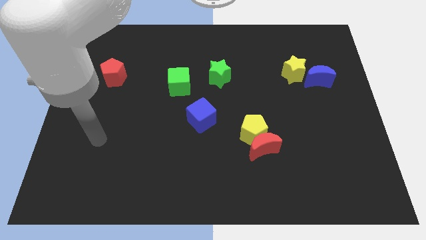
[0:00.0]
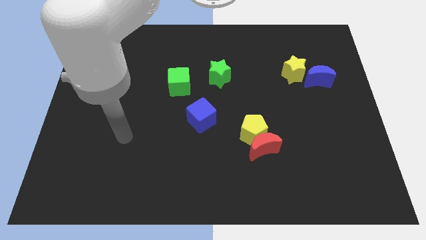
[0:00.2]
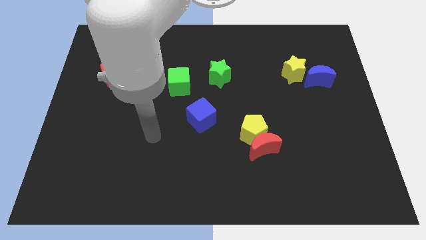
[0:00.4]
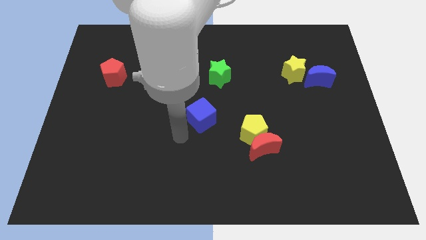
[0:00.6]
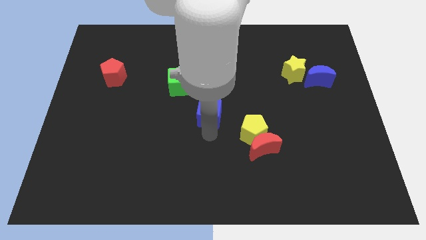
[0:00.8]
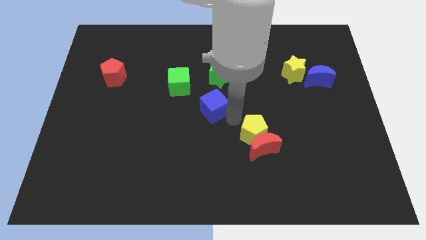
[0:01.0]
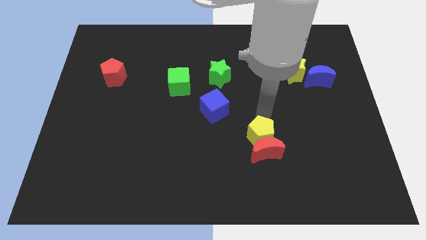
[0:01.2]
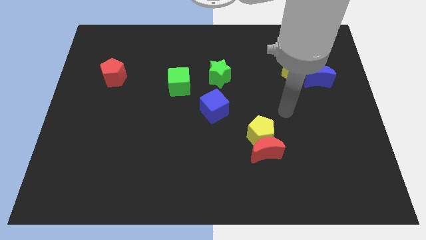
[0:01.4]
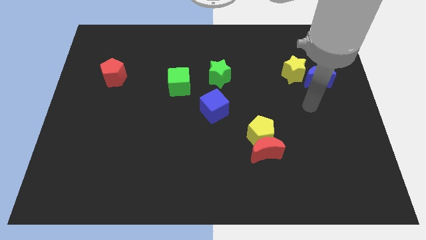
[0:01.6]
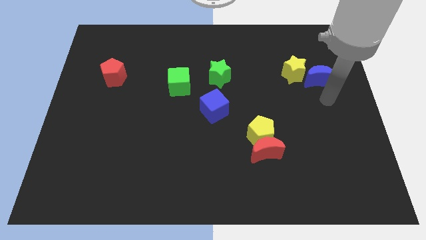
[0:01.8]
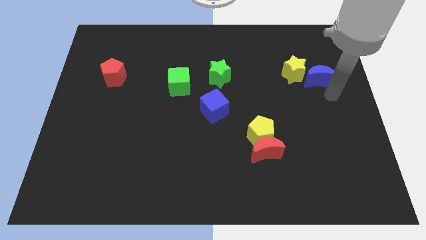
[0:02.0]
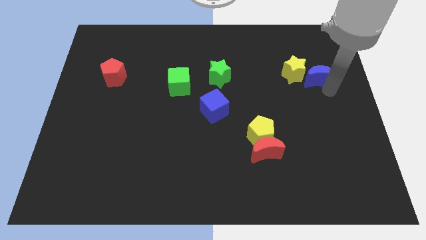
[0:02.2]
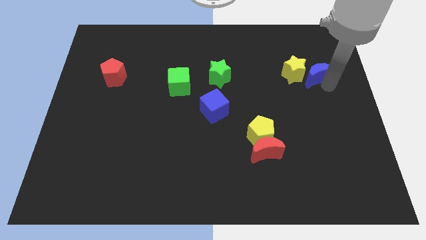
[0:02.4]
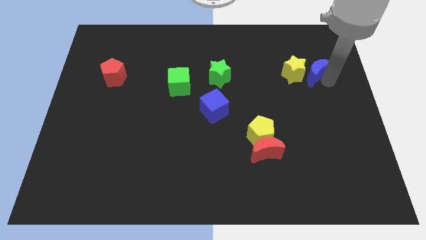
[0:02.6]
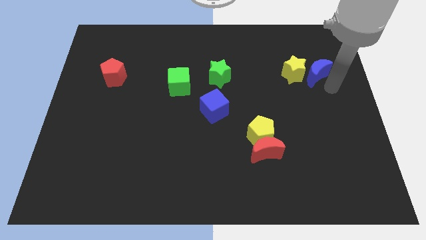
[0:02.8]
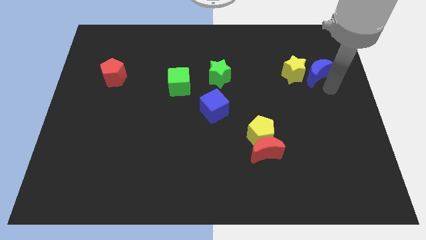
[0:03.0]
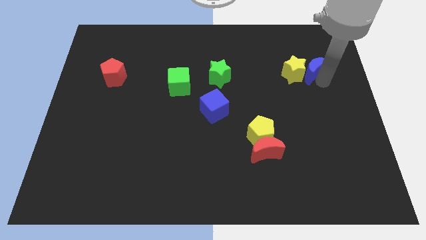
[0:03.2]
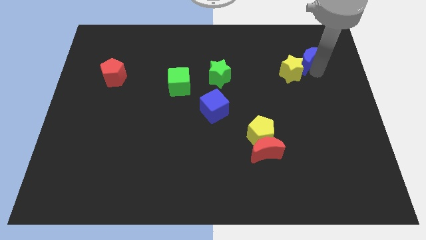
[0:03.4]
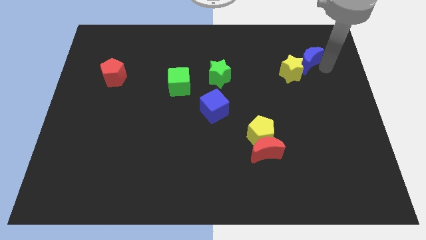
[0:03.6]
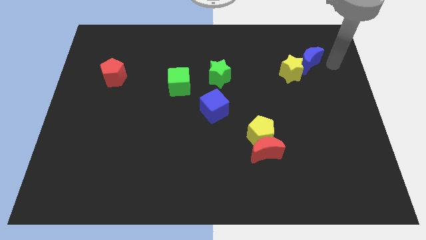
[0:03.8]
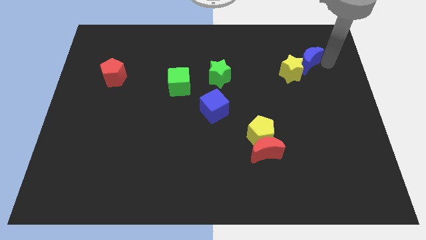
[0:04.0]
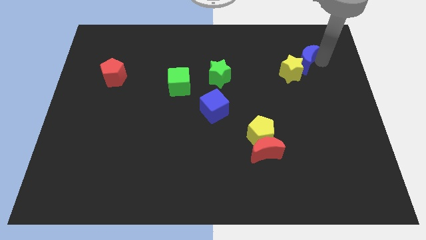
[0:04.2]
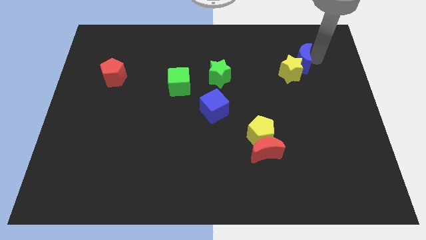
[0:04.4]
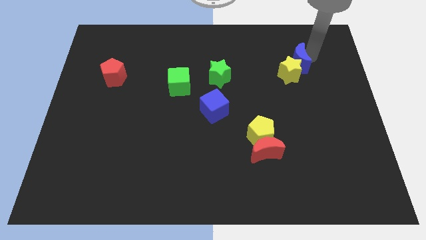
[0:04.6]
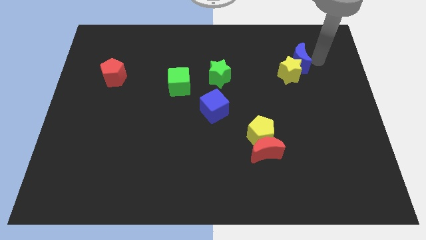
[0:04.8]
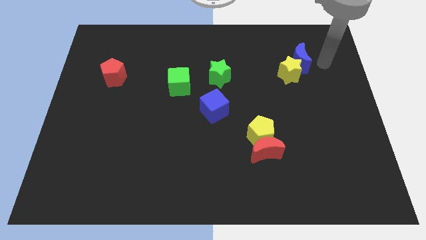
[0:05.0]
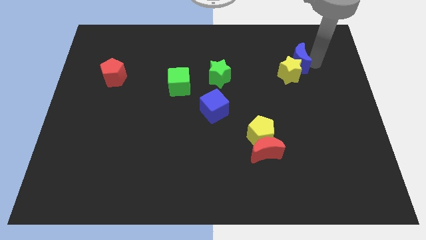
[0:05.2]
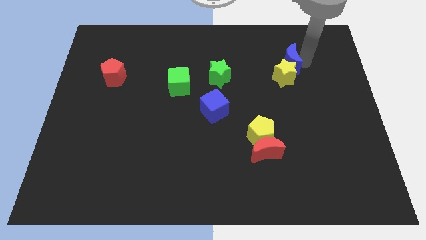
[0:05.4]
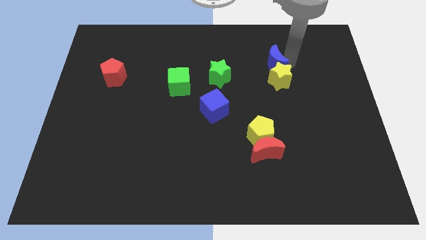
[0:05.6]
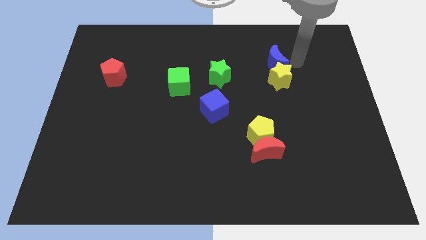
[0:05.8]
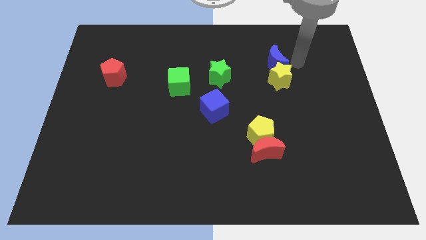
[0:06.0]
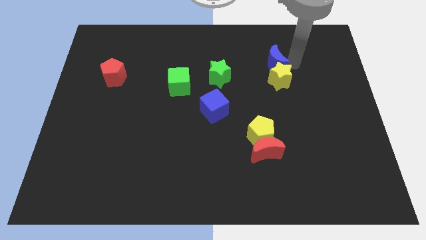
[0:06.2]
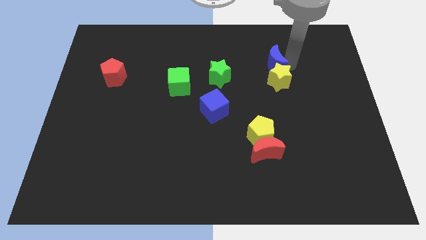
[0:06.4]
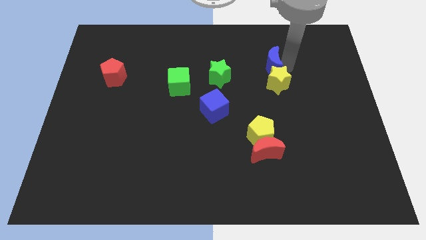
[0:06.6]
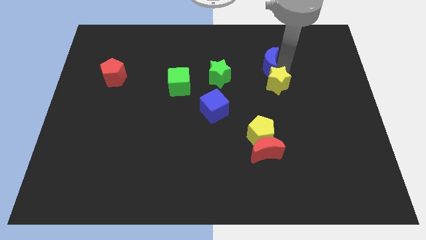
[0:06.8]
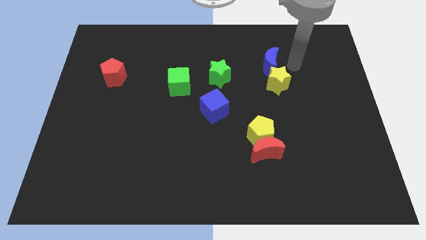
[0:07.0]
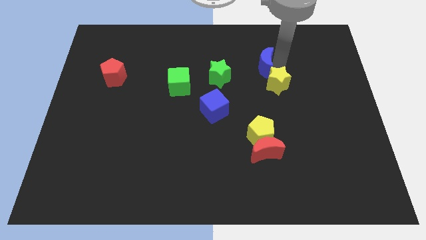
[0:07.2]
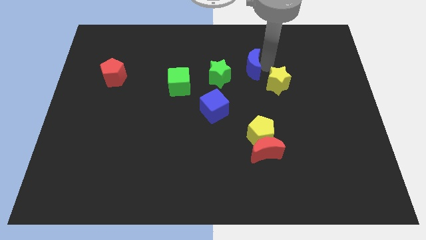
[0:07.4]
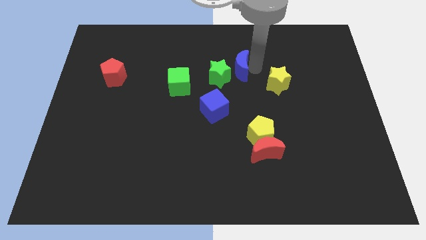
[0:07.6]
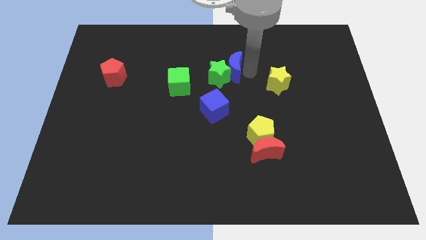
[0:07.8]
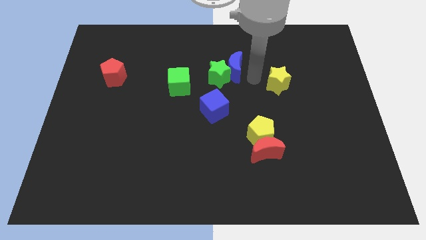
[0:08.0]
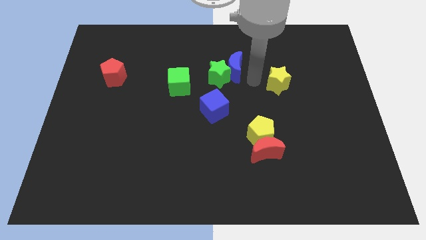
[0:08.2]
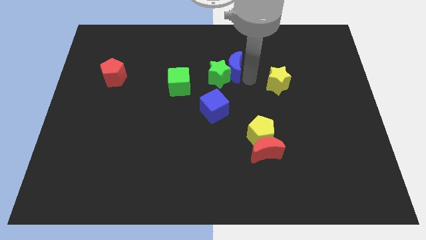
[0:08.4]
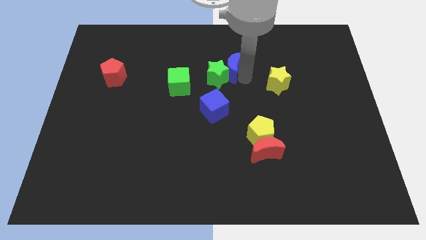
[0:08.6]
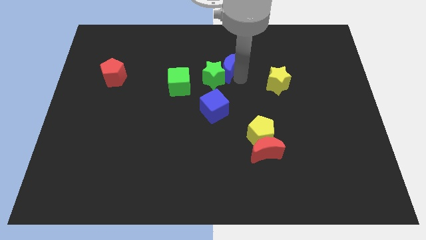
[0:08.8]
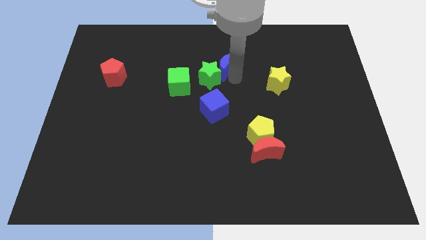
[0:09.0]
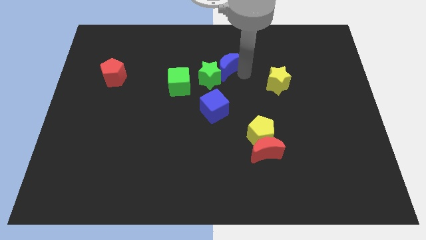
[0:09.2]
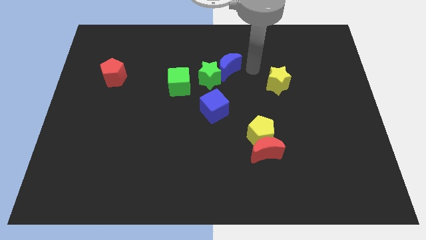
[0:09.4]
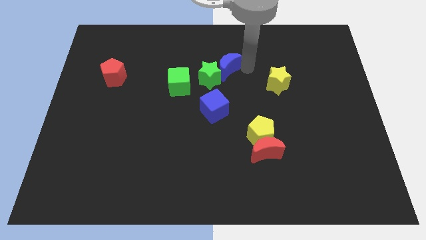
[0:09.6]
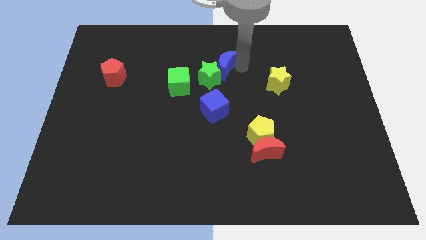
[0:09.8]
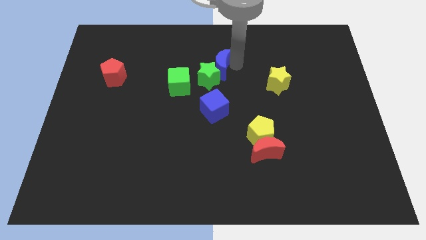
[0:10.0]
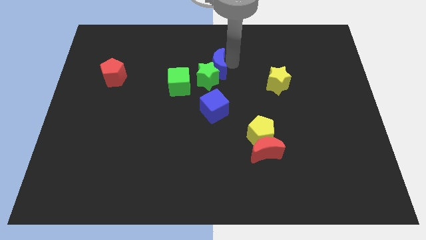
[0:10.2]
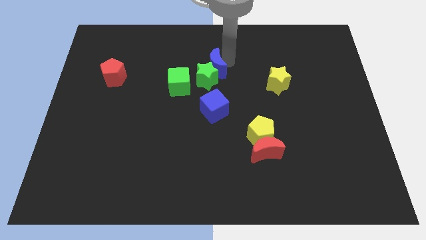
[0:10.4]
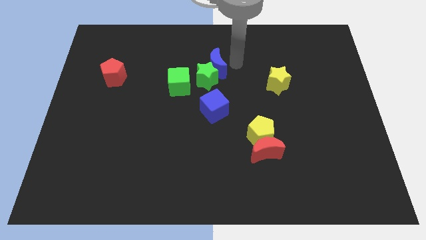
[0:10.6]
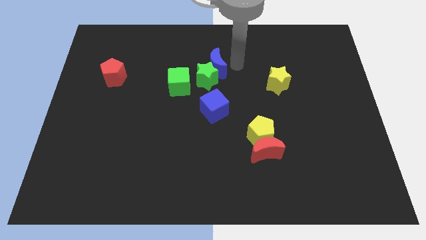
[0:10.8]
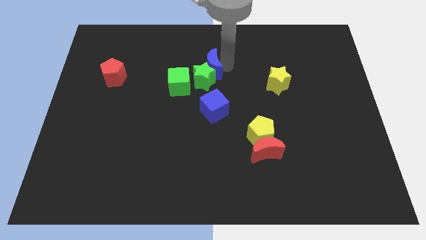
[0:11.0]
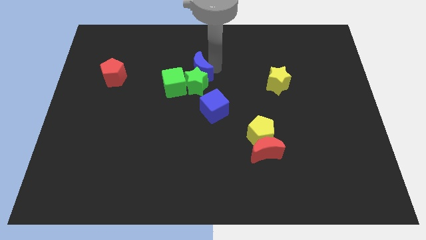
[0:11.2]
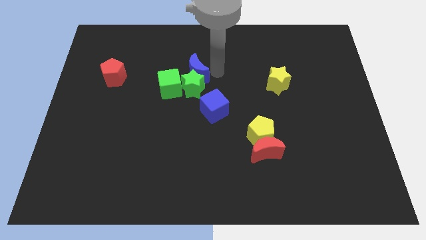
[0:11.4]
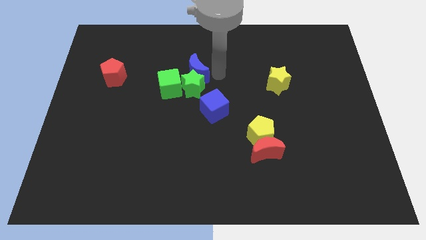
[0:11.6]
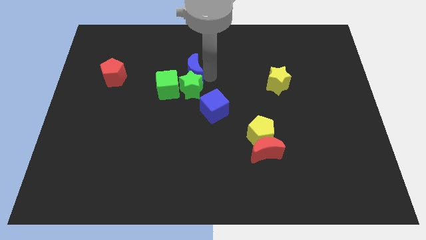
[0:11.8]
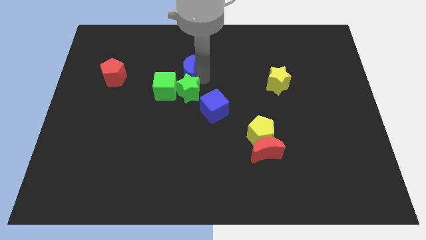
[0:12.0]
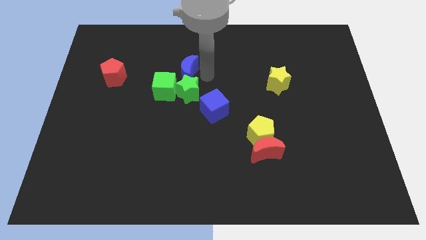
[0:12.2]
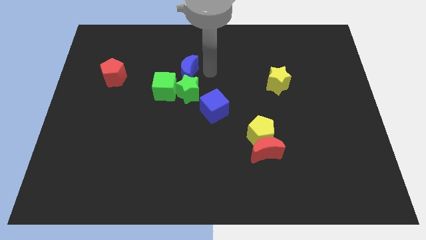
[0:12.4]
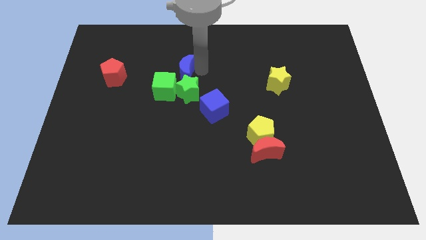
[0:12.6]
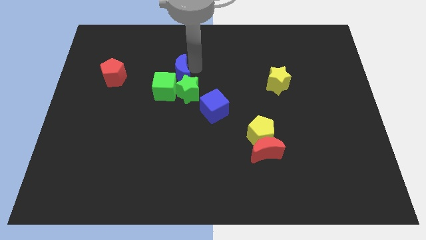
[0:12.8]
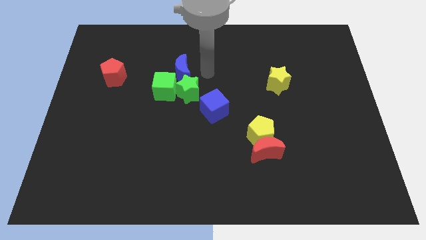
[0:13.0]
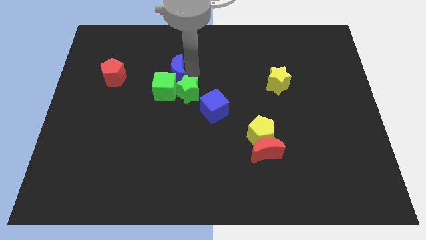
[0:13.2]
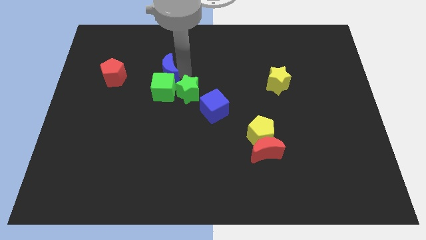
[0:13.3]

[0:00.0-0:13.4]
move the blue moon to the top left side of the green cube
